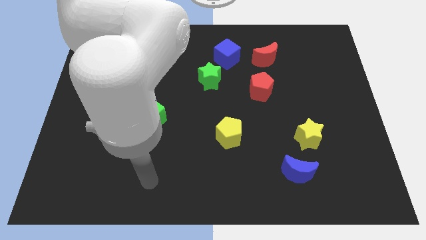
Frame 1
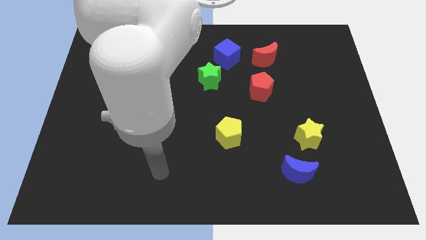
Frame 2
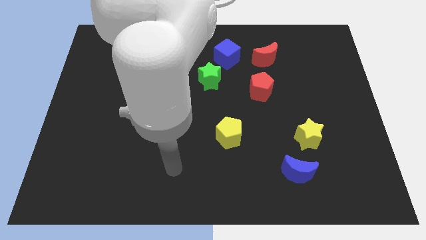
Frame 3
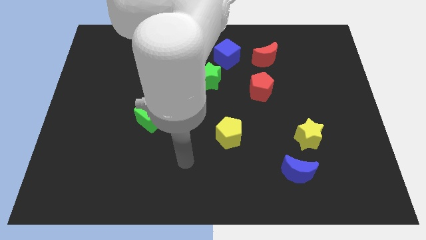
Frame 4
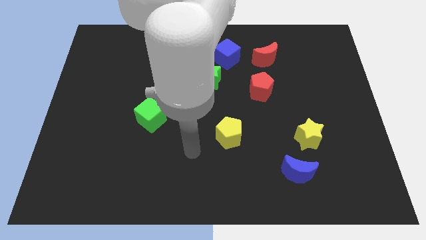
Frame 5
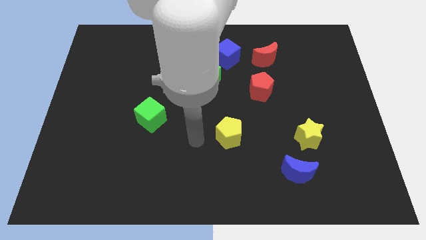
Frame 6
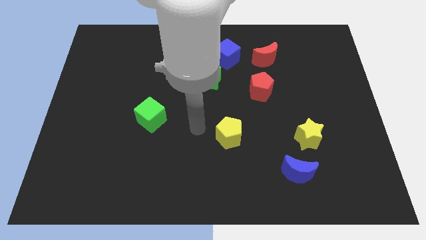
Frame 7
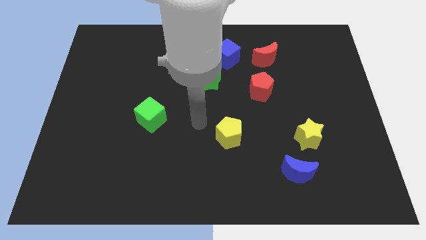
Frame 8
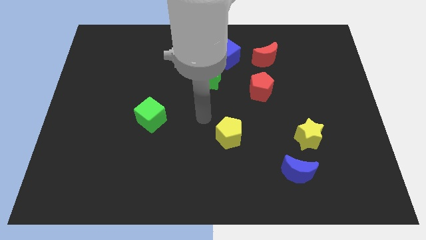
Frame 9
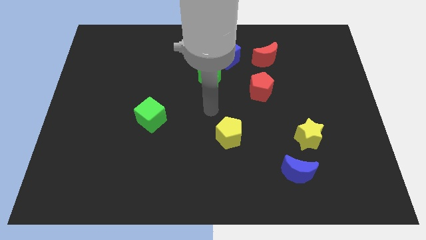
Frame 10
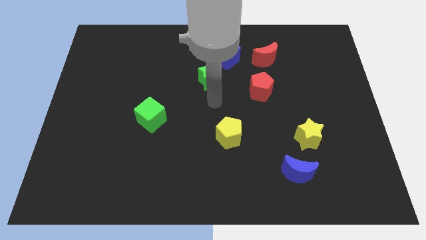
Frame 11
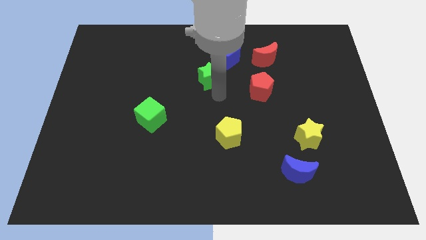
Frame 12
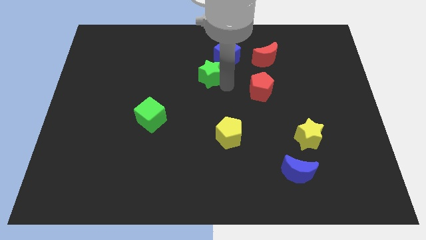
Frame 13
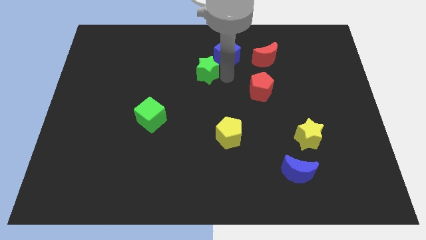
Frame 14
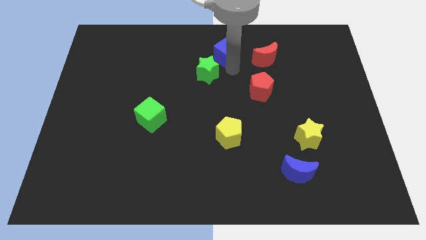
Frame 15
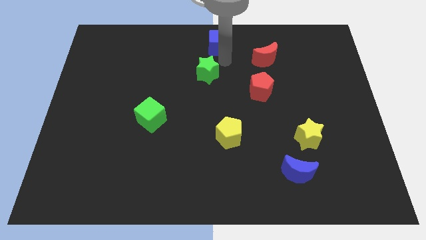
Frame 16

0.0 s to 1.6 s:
move the green star away from the blue cube

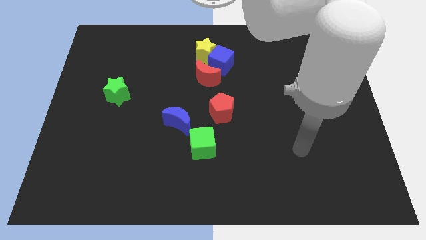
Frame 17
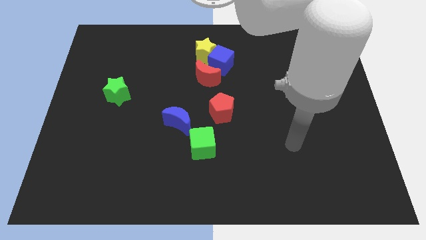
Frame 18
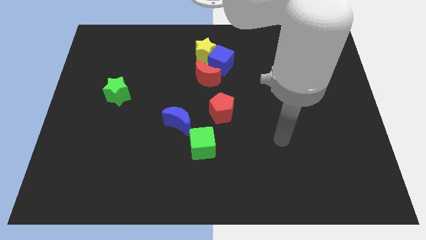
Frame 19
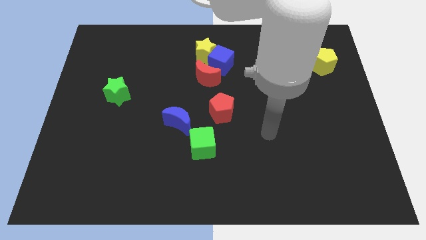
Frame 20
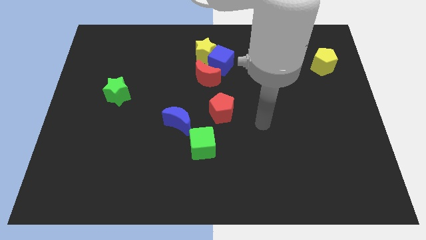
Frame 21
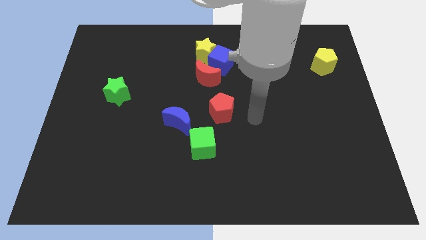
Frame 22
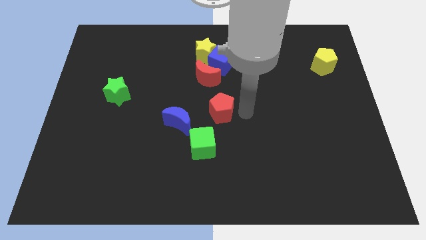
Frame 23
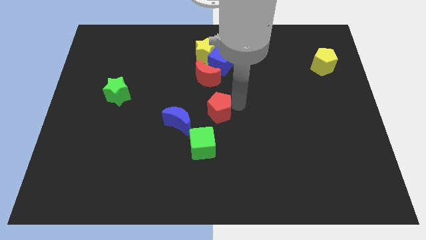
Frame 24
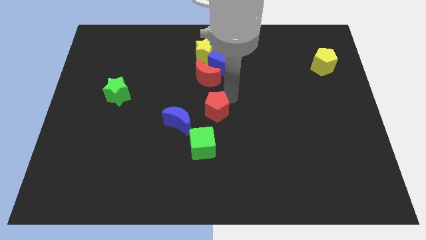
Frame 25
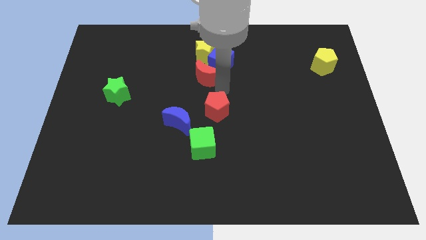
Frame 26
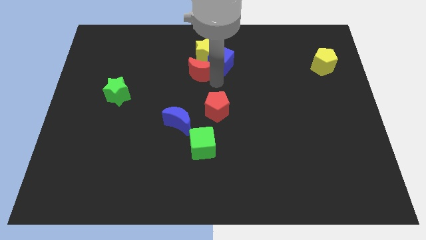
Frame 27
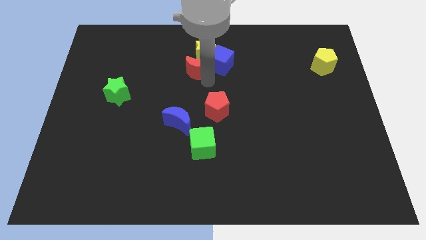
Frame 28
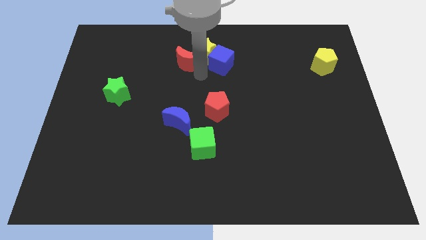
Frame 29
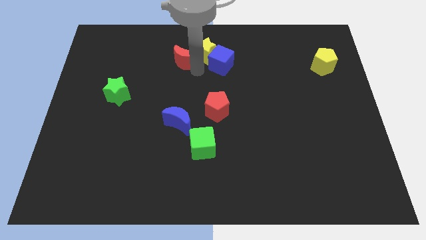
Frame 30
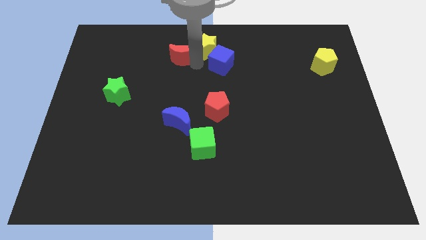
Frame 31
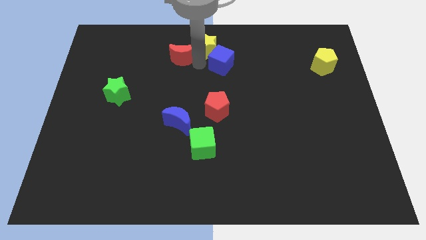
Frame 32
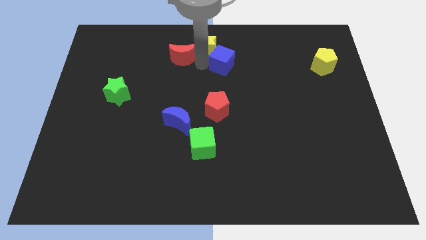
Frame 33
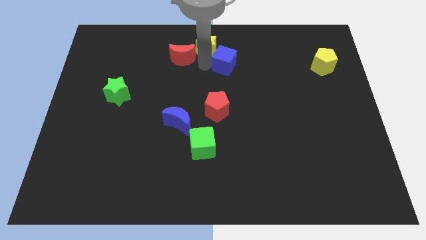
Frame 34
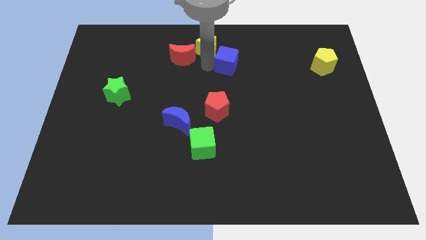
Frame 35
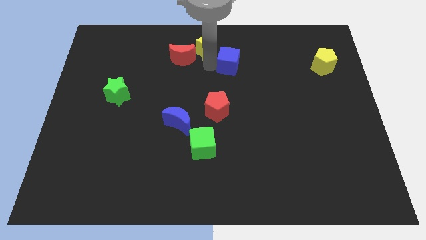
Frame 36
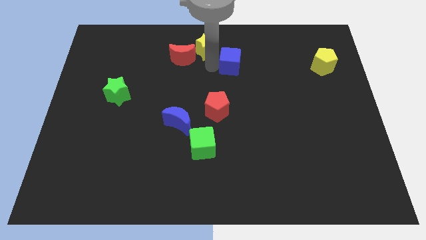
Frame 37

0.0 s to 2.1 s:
separate the blue cube from the yellow star and red moon

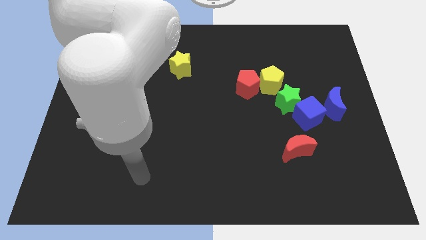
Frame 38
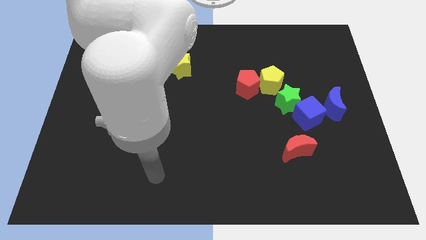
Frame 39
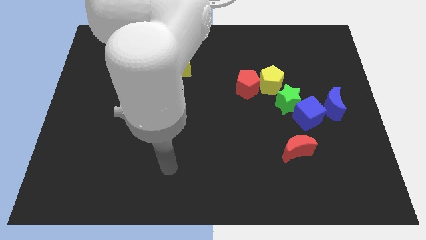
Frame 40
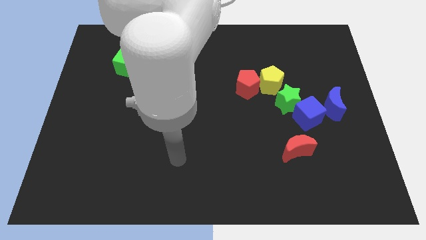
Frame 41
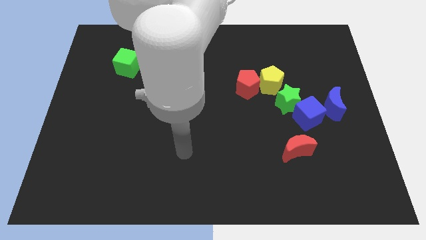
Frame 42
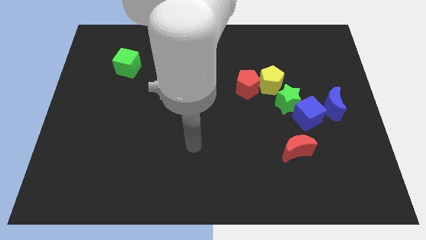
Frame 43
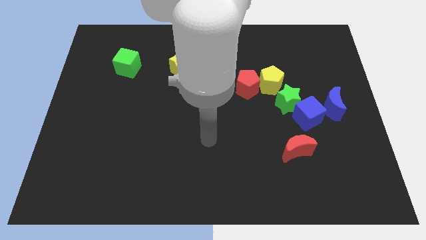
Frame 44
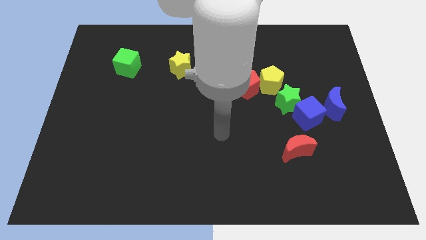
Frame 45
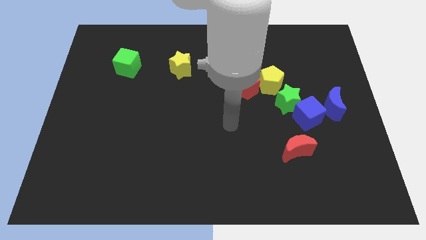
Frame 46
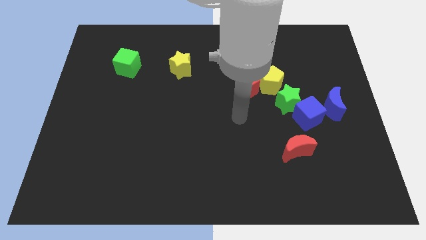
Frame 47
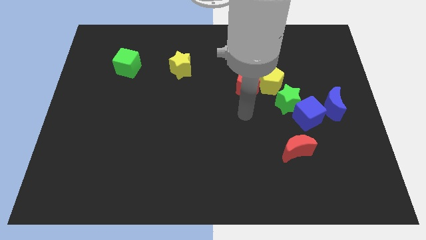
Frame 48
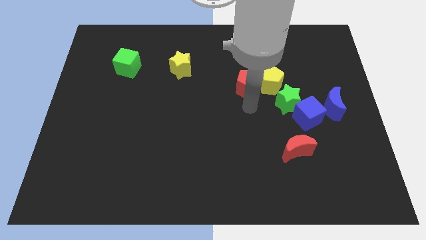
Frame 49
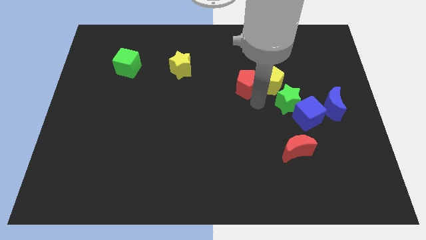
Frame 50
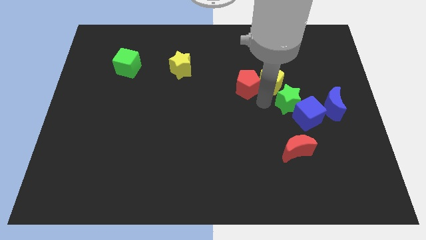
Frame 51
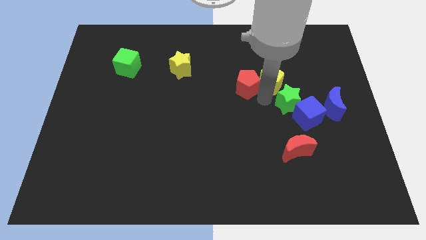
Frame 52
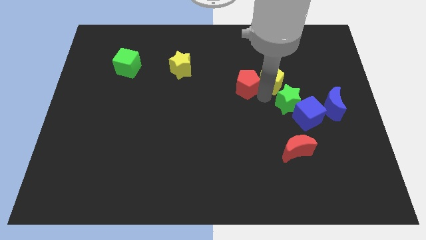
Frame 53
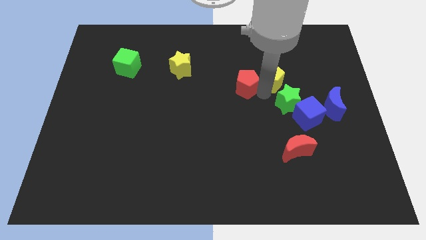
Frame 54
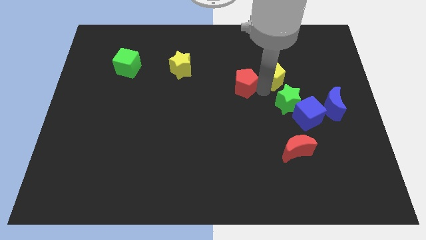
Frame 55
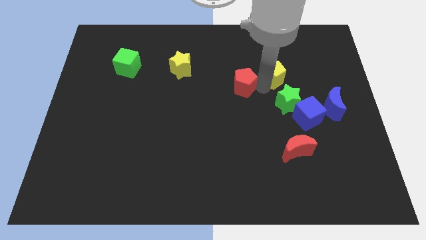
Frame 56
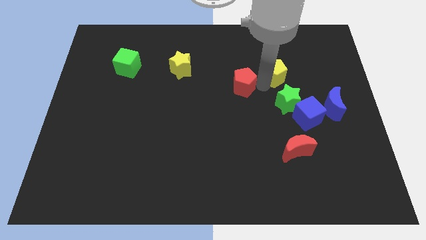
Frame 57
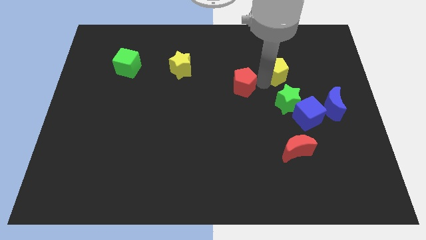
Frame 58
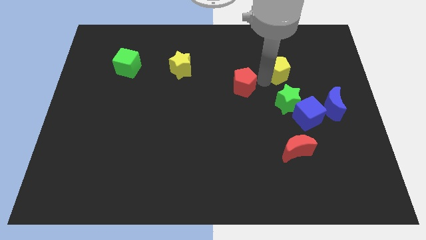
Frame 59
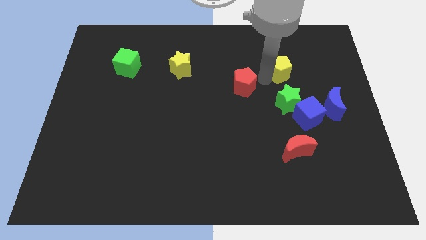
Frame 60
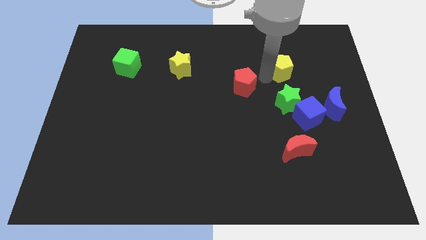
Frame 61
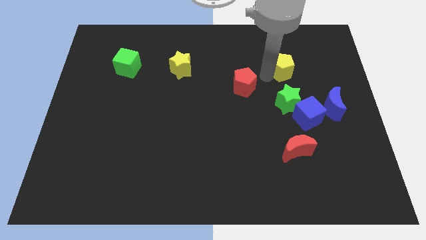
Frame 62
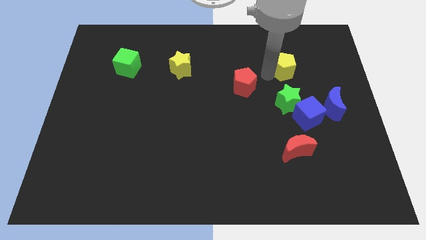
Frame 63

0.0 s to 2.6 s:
pull the yellow pentagon apart from the red pentagon and green star

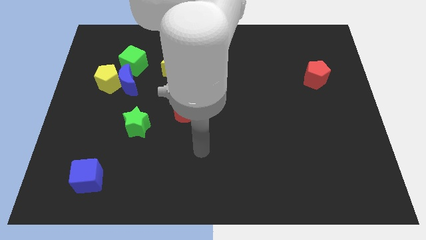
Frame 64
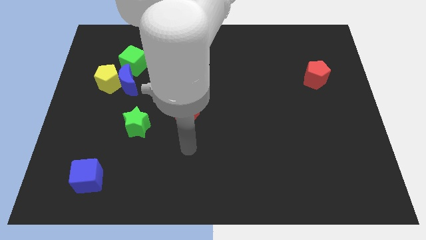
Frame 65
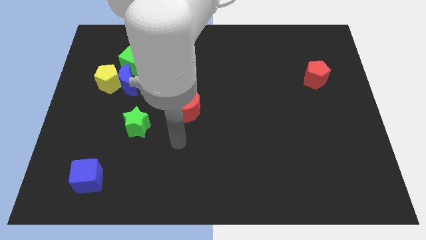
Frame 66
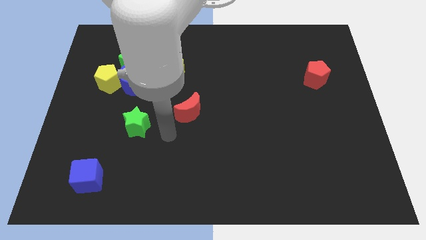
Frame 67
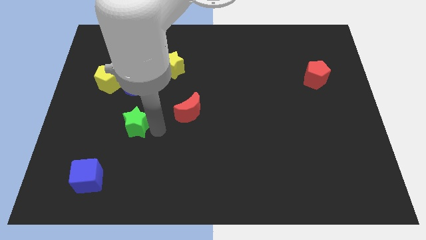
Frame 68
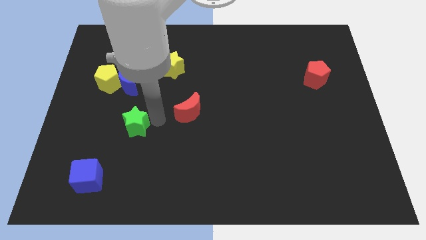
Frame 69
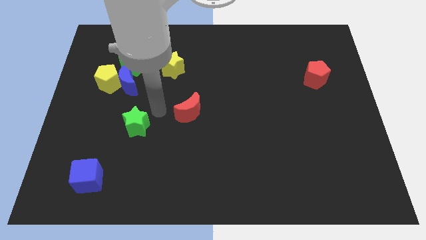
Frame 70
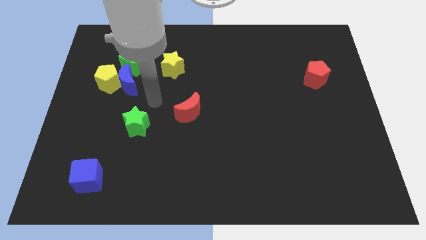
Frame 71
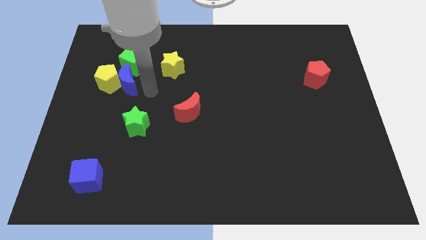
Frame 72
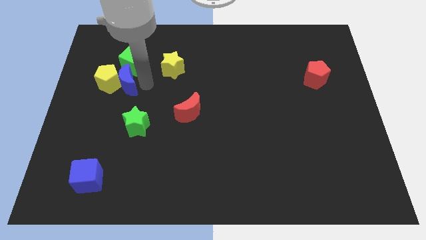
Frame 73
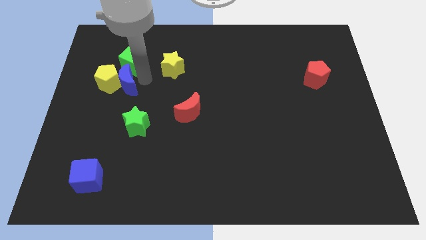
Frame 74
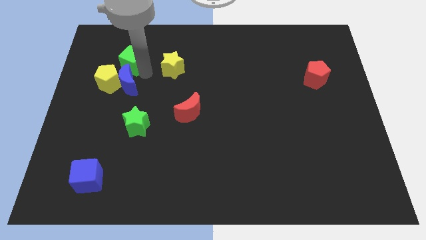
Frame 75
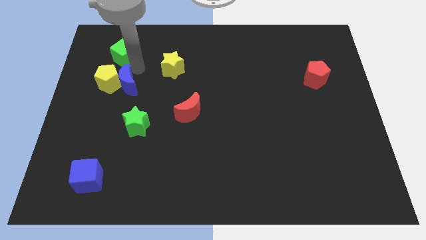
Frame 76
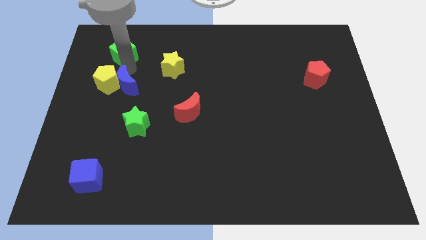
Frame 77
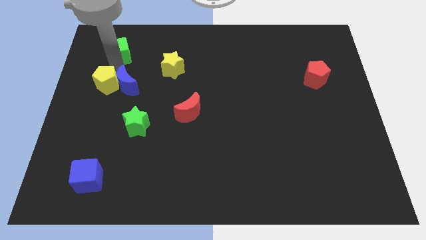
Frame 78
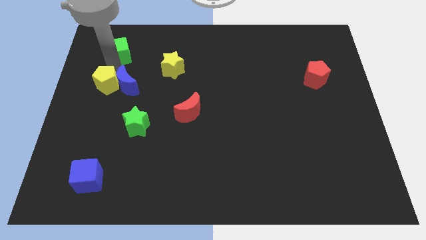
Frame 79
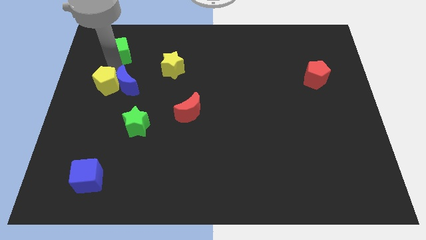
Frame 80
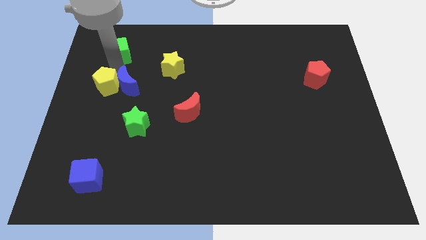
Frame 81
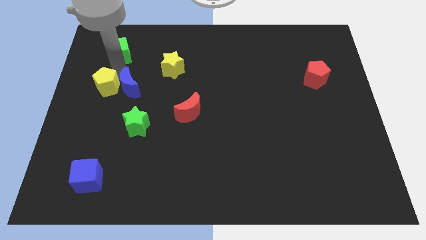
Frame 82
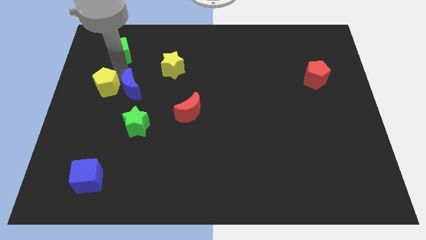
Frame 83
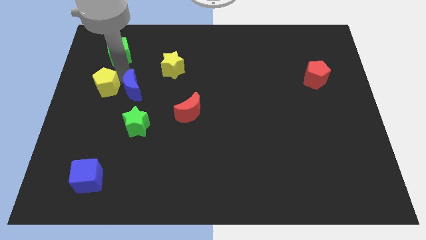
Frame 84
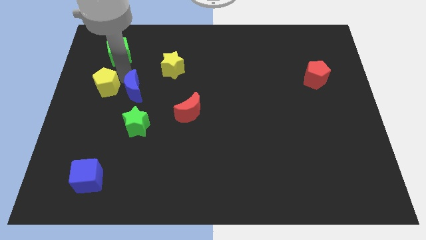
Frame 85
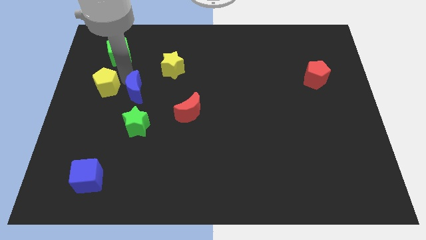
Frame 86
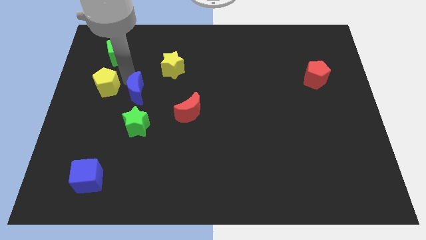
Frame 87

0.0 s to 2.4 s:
move the blue moon away from the yellow pentagon and green cube

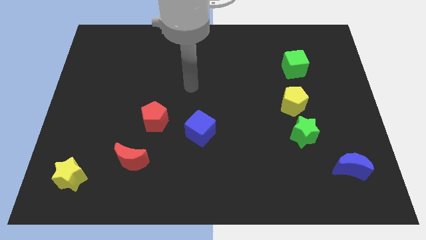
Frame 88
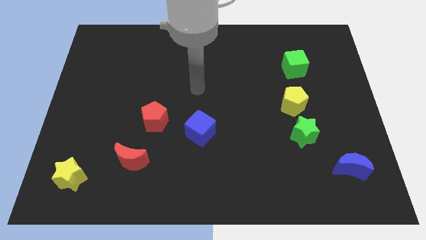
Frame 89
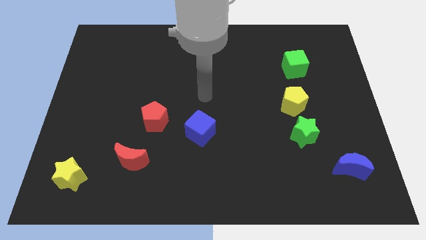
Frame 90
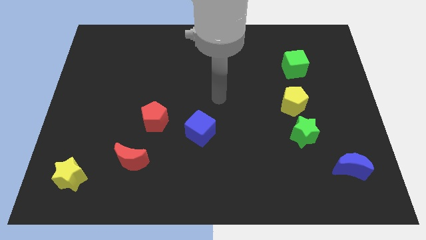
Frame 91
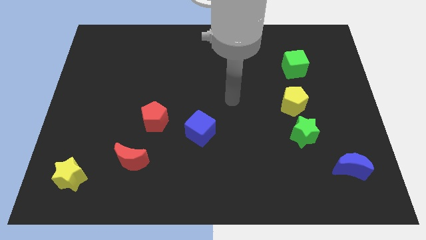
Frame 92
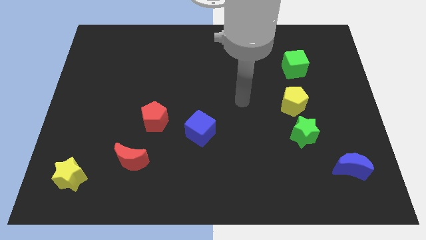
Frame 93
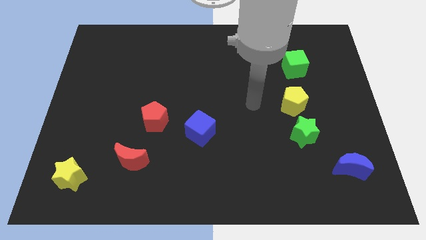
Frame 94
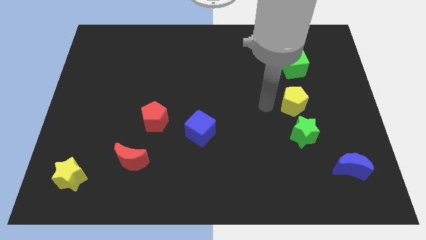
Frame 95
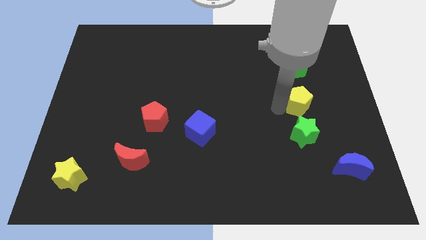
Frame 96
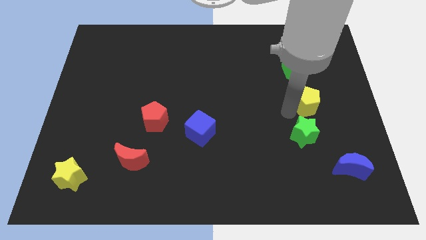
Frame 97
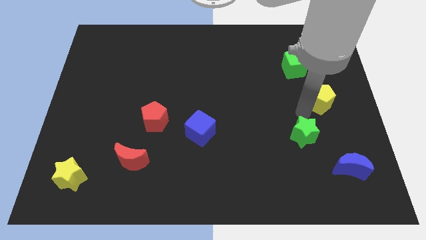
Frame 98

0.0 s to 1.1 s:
pull the green star apart from the yellow pentagon
